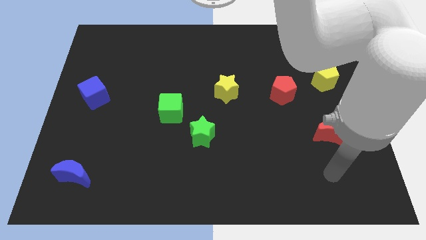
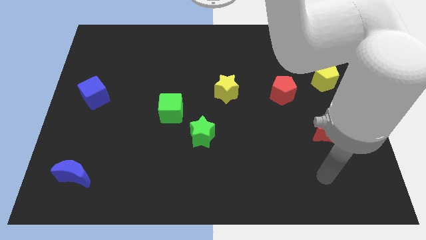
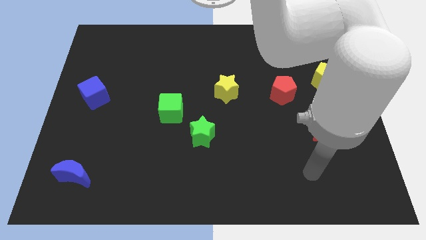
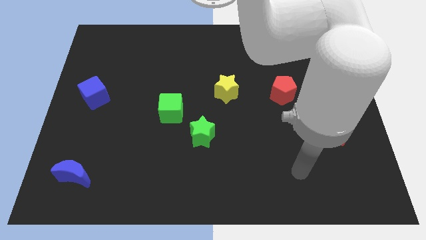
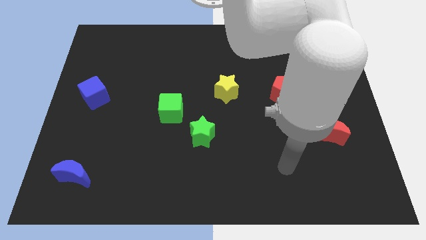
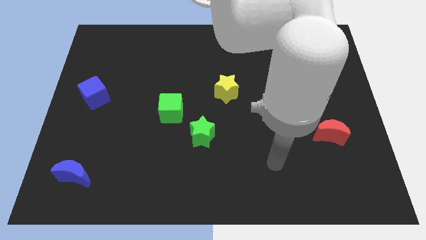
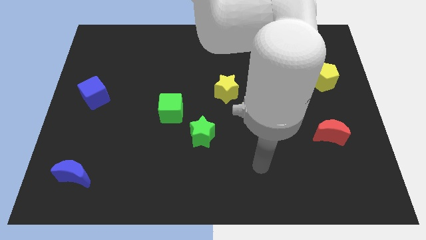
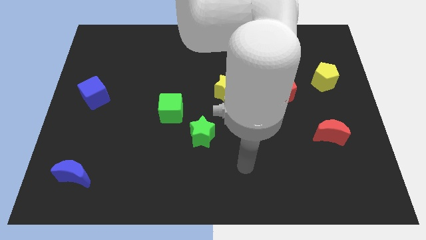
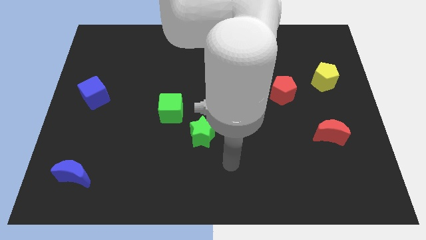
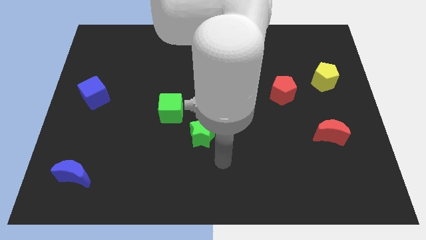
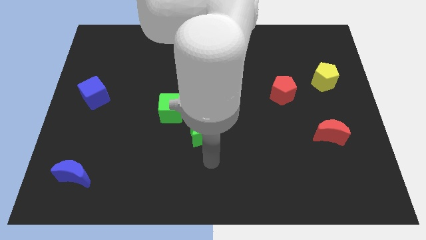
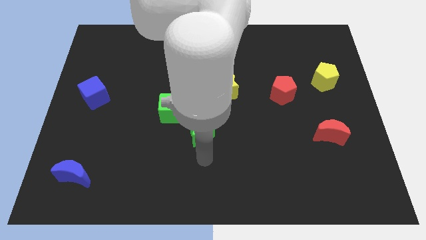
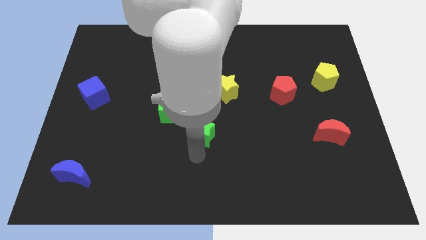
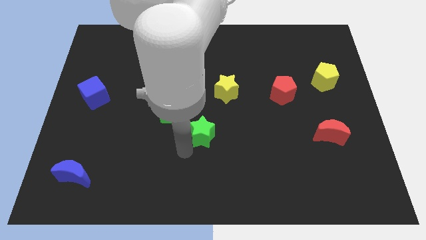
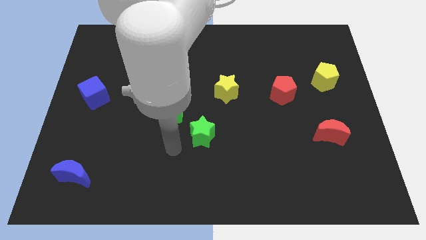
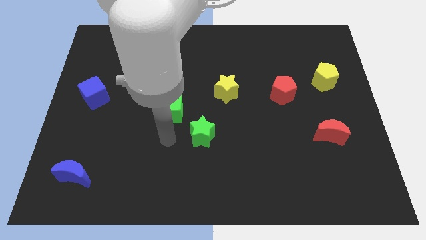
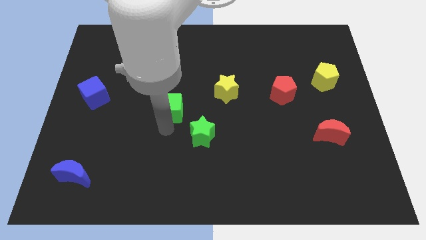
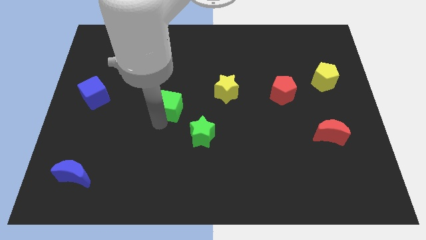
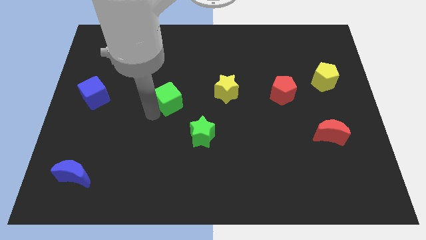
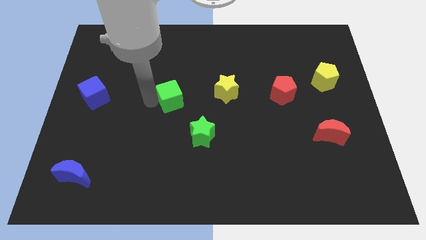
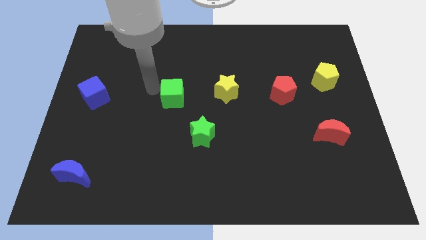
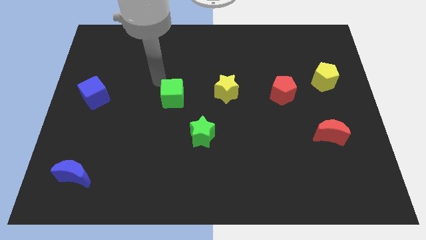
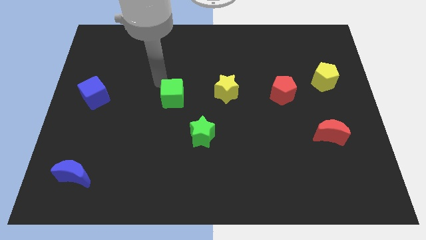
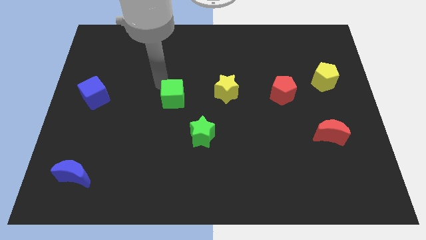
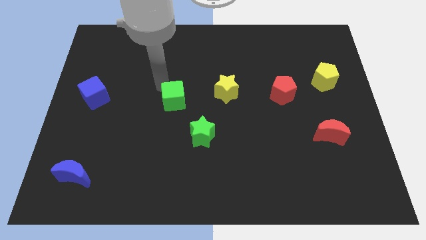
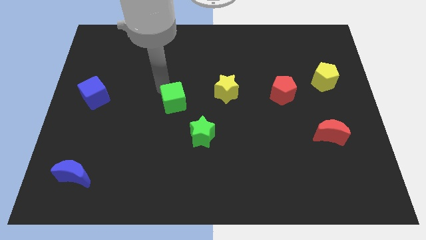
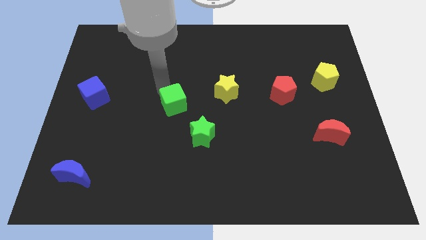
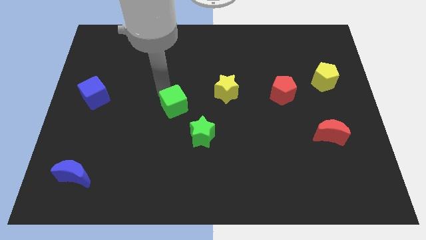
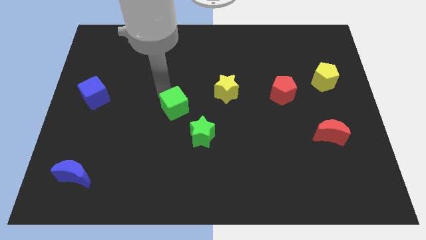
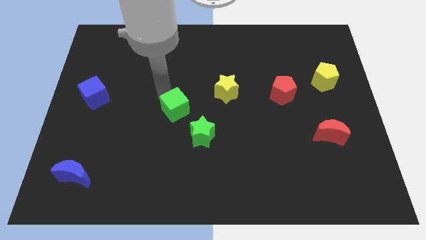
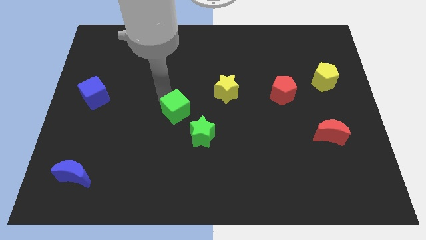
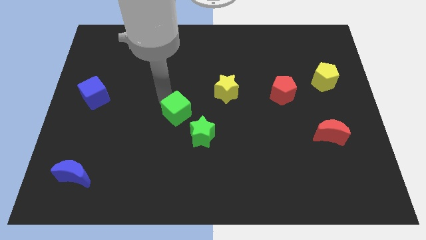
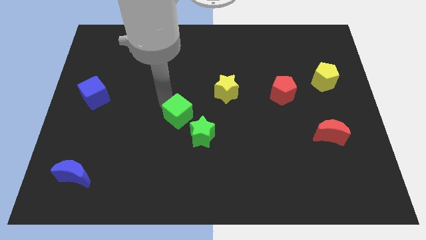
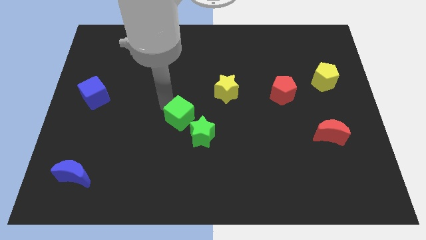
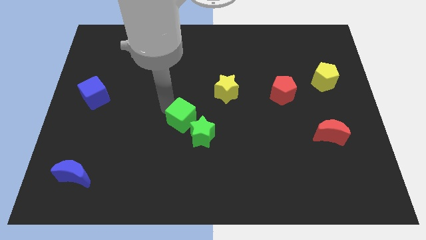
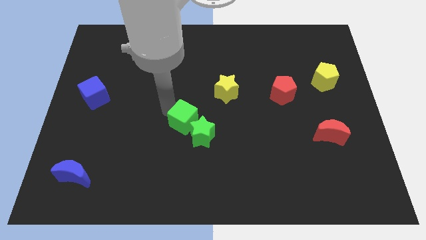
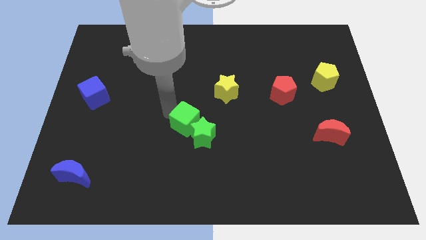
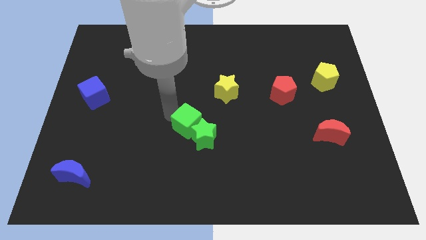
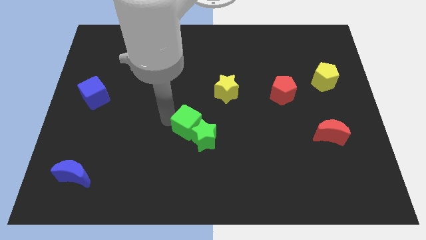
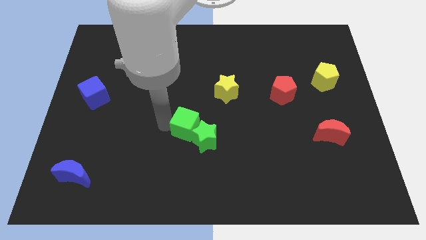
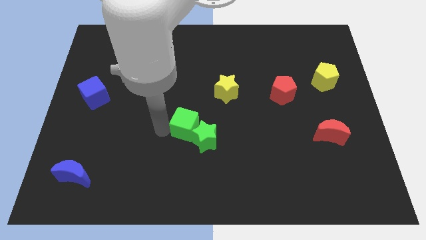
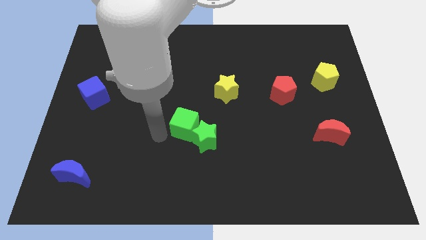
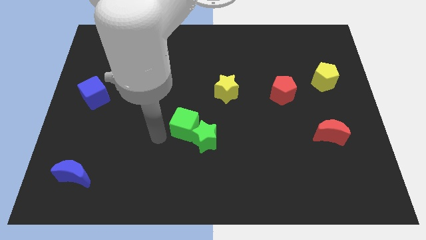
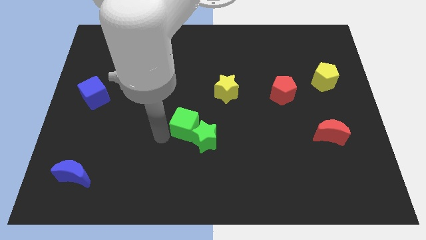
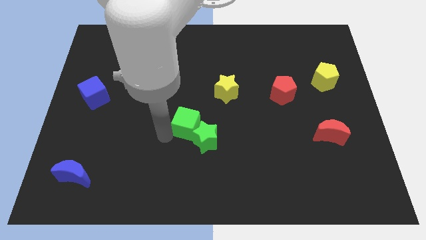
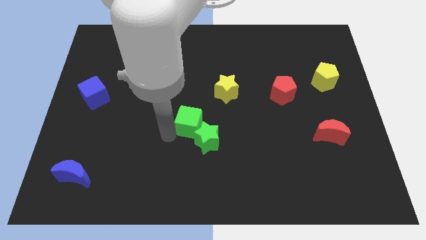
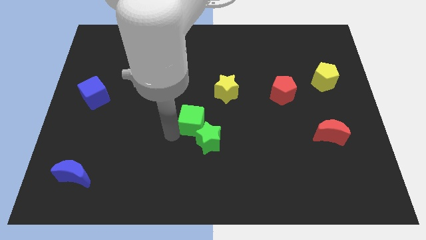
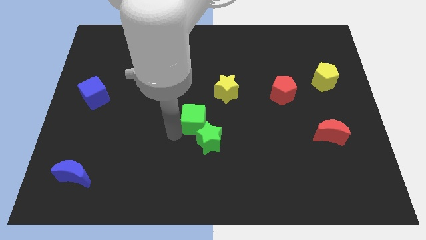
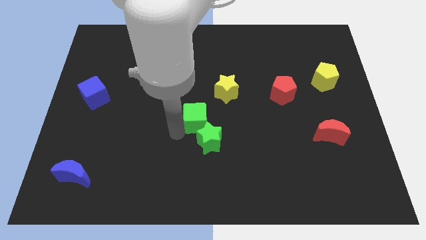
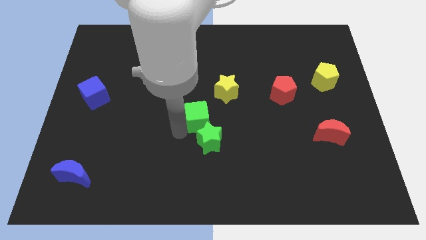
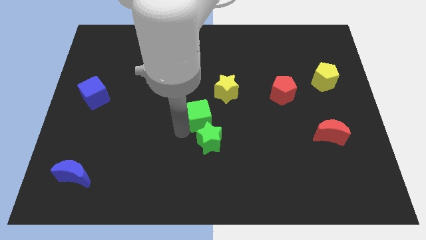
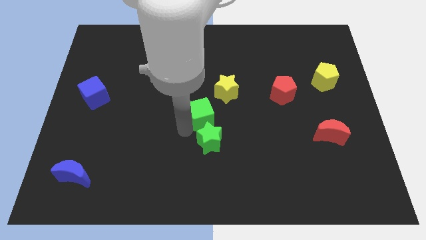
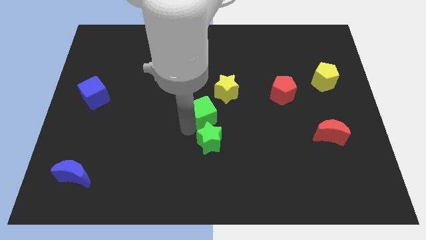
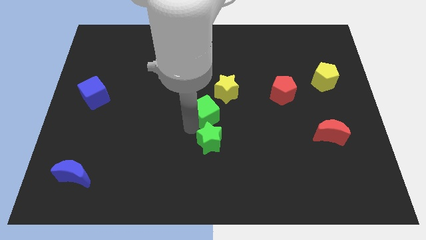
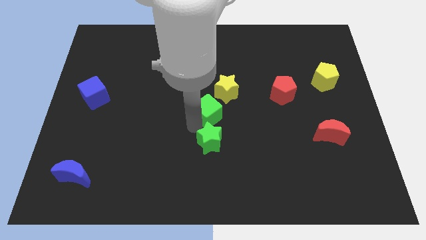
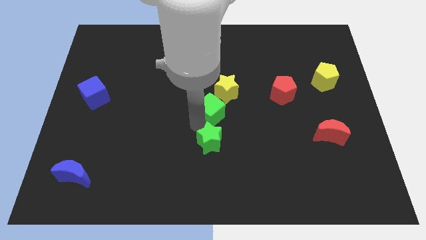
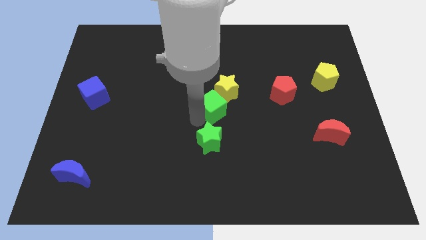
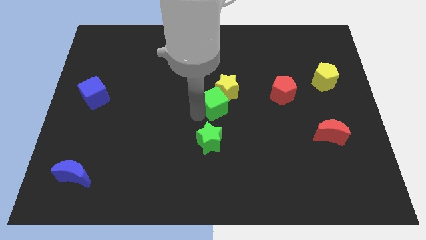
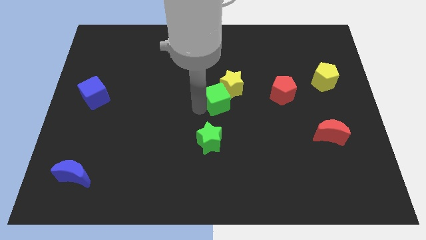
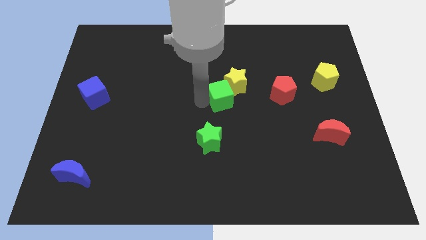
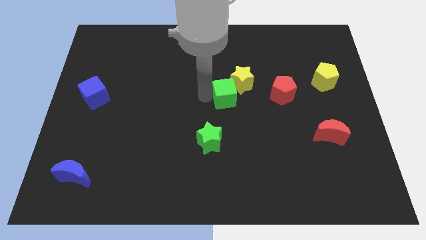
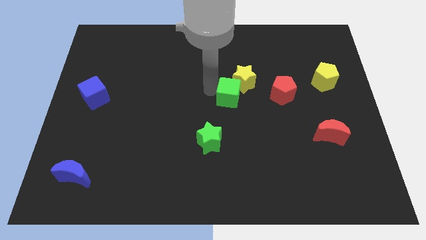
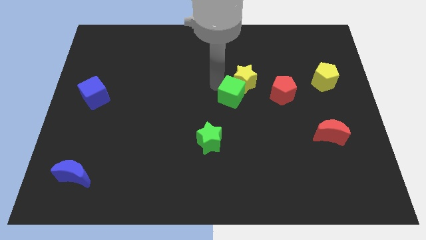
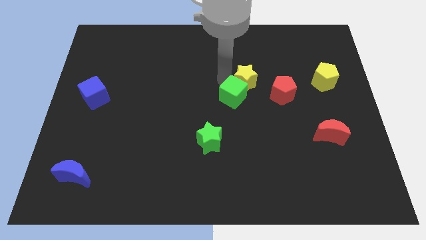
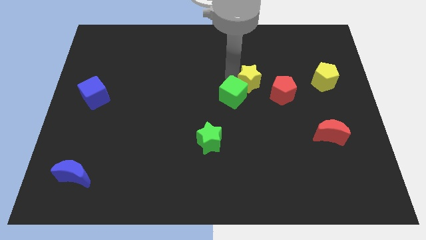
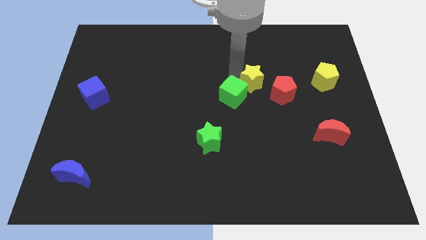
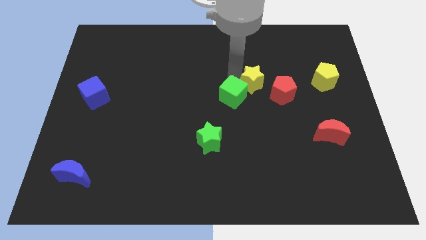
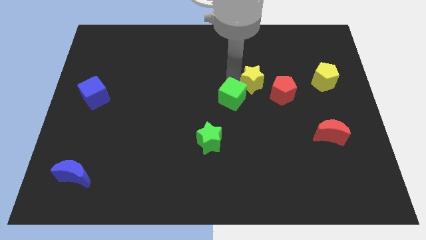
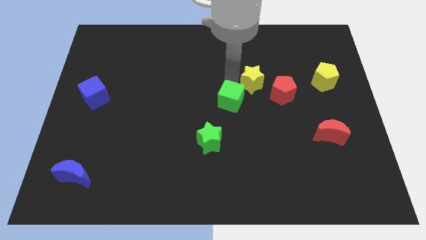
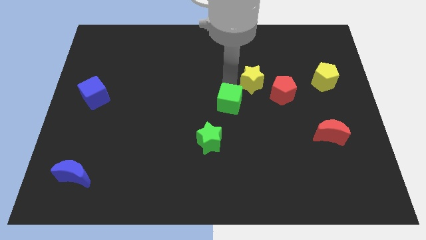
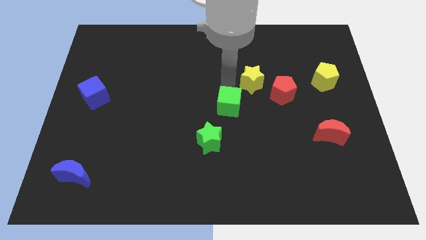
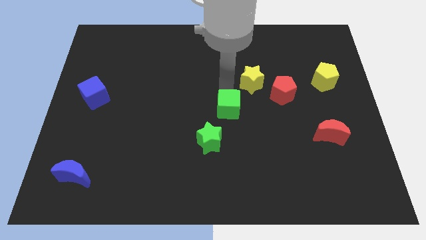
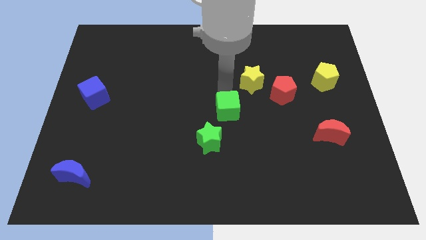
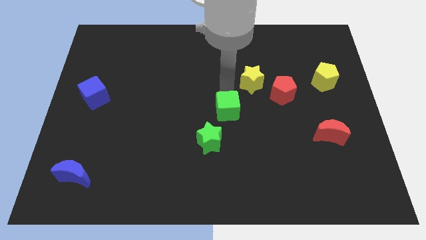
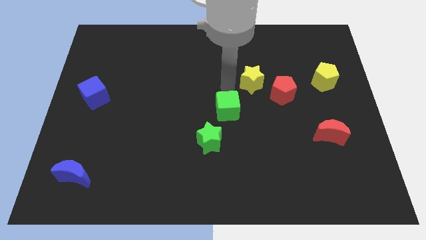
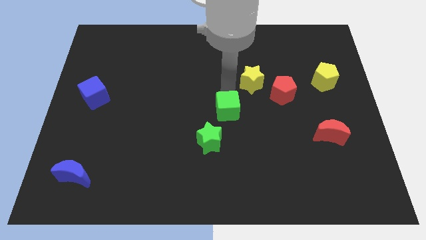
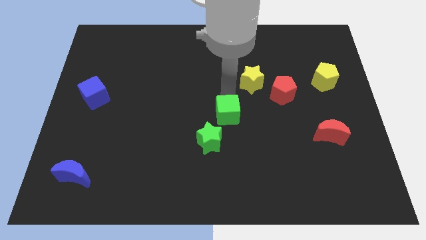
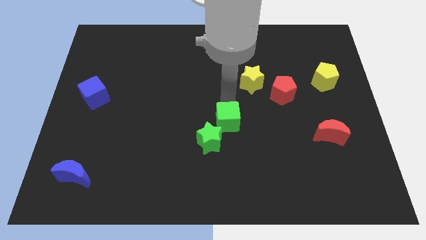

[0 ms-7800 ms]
push the green cube somewhat downwards and then right
